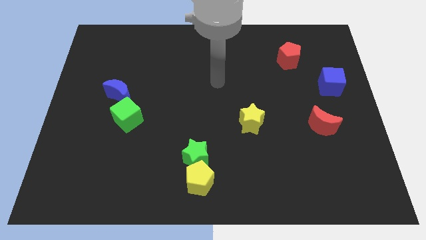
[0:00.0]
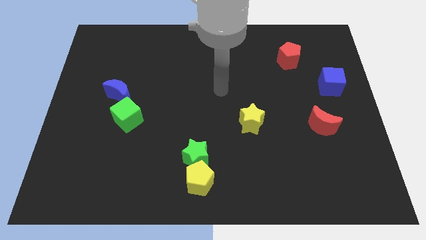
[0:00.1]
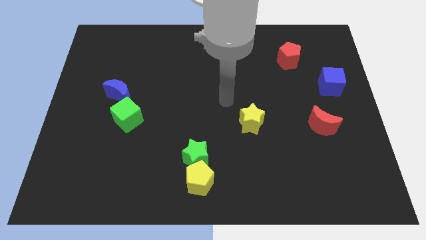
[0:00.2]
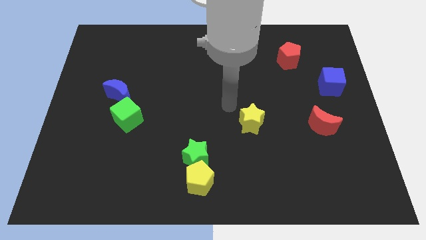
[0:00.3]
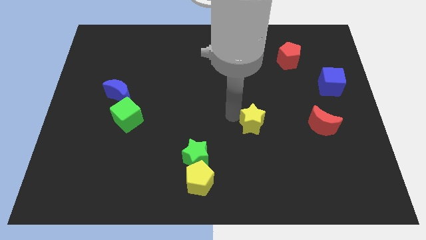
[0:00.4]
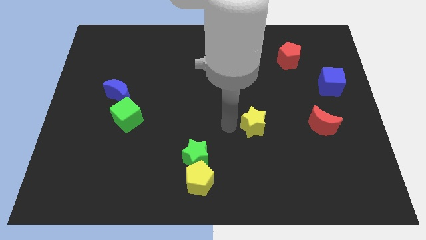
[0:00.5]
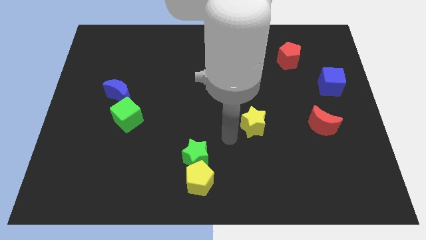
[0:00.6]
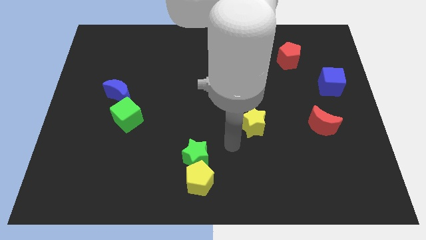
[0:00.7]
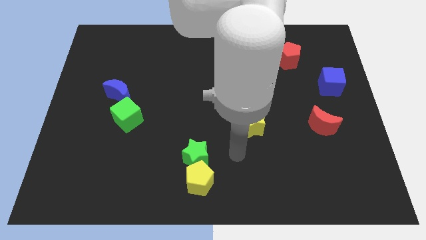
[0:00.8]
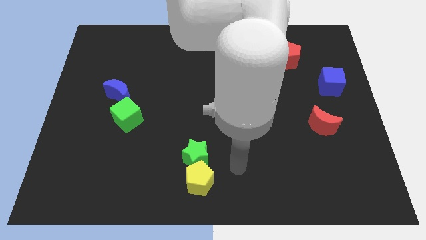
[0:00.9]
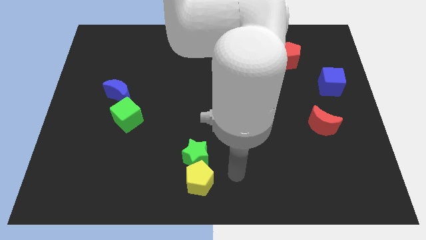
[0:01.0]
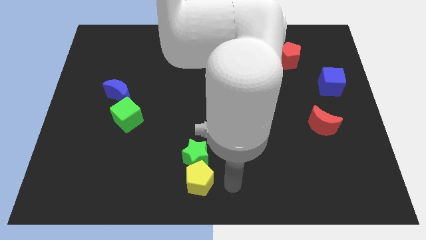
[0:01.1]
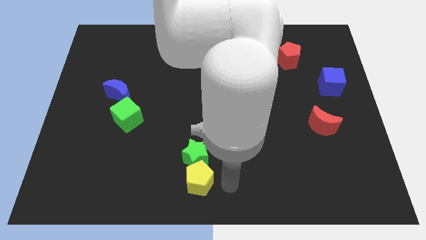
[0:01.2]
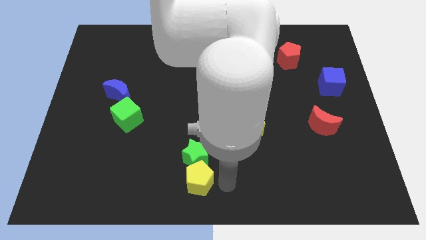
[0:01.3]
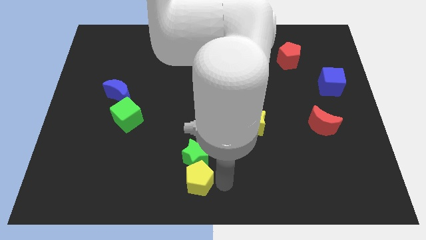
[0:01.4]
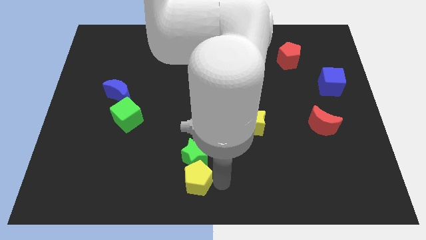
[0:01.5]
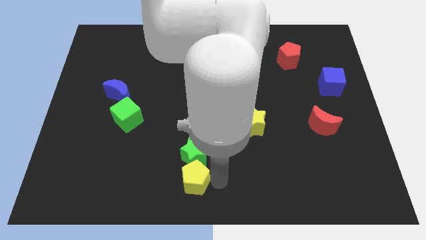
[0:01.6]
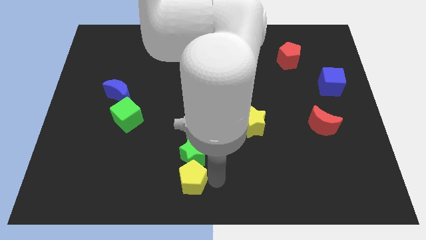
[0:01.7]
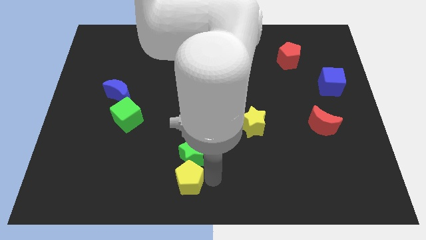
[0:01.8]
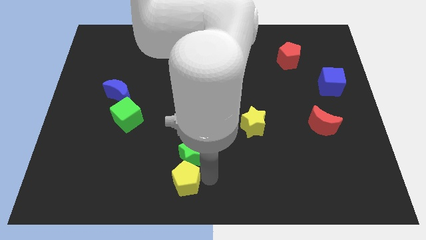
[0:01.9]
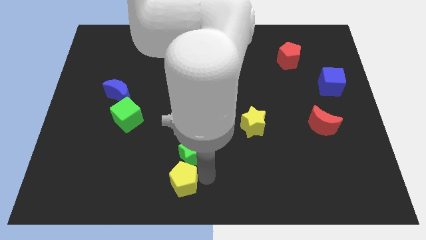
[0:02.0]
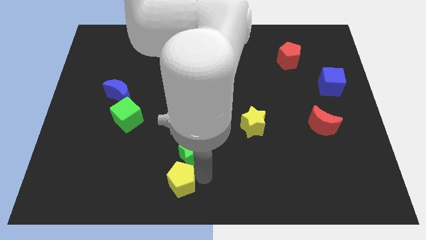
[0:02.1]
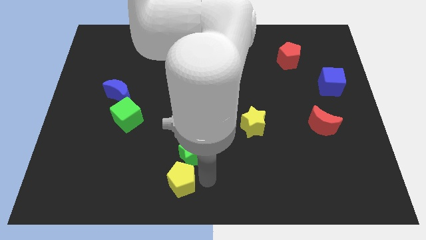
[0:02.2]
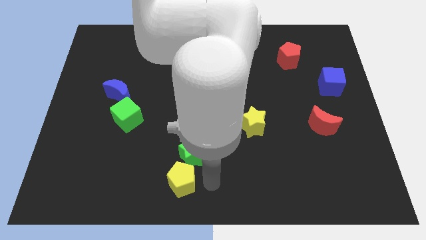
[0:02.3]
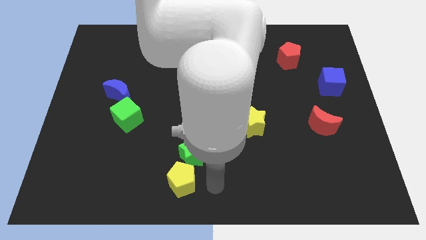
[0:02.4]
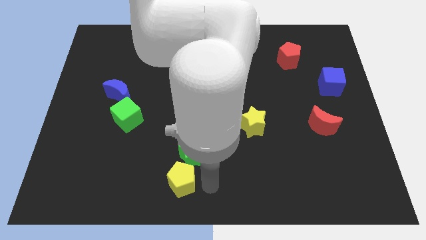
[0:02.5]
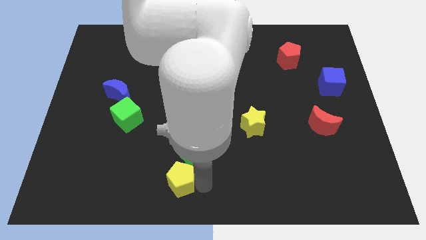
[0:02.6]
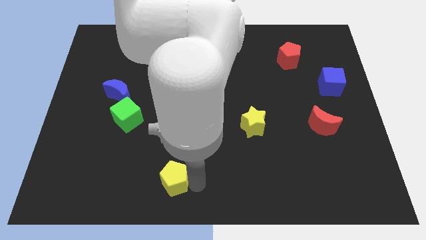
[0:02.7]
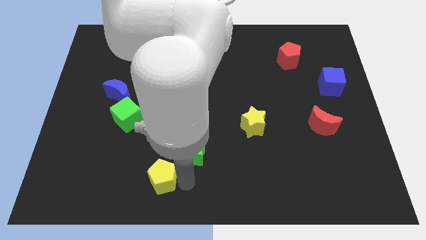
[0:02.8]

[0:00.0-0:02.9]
slightly push the yellow pentagon to the left

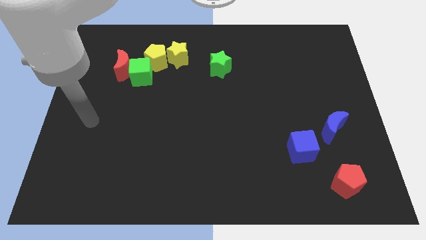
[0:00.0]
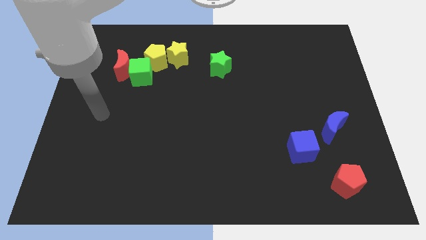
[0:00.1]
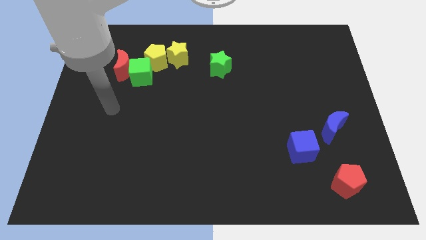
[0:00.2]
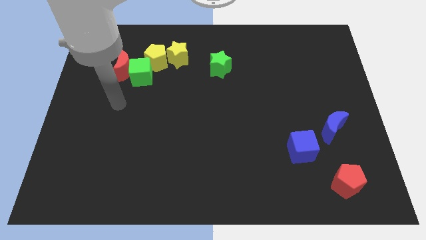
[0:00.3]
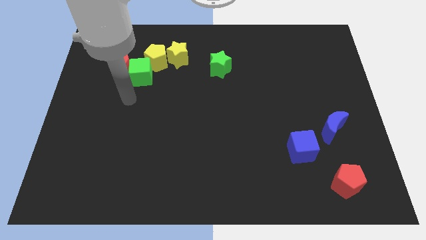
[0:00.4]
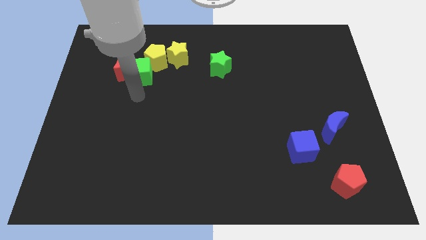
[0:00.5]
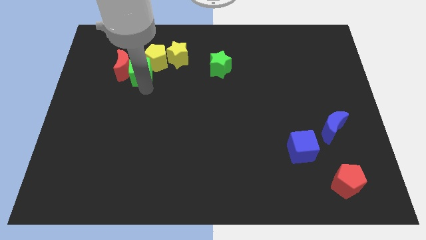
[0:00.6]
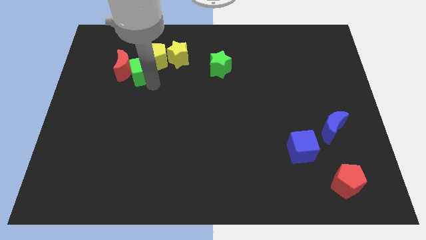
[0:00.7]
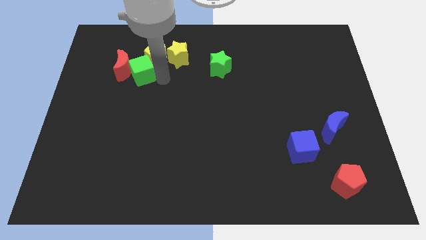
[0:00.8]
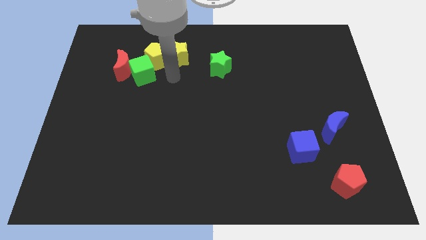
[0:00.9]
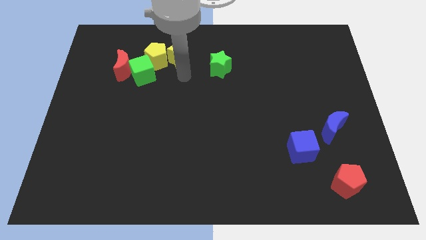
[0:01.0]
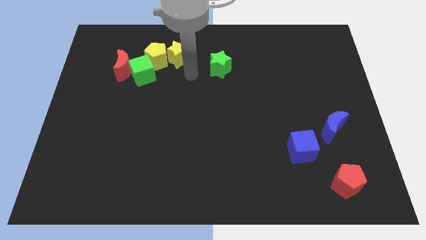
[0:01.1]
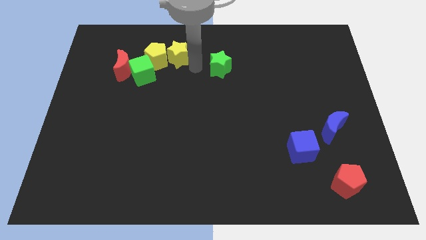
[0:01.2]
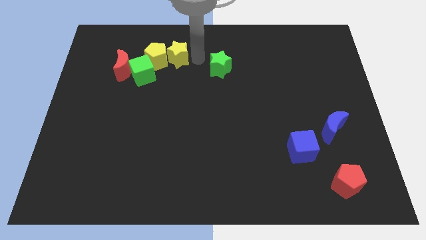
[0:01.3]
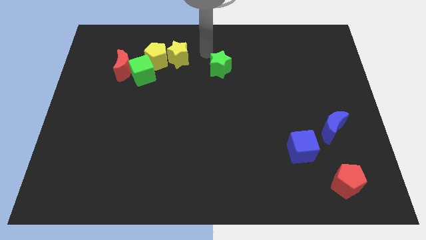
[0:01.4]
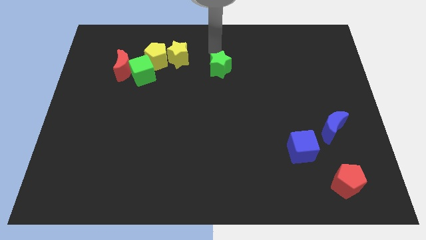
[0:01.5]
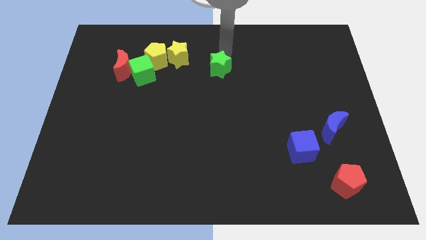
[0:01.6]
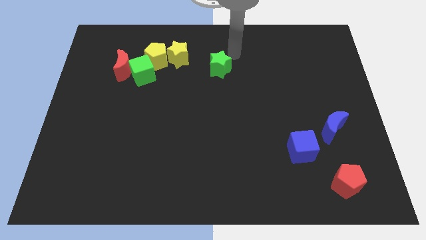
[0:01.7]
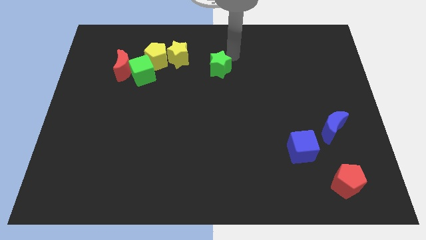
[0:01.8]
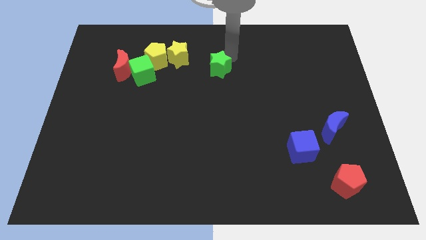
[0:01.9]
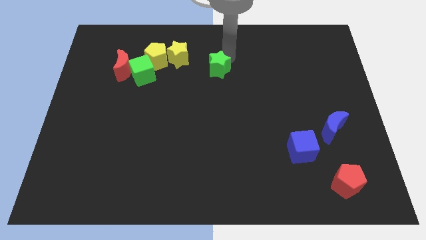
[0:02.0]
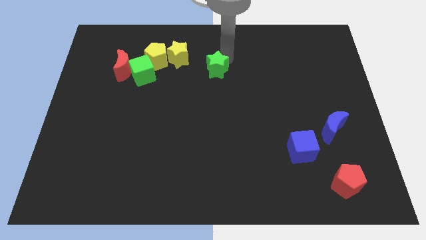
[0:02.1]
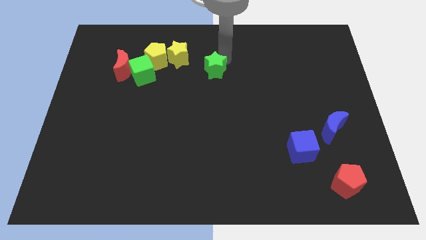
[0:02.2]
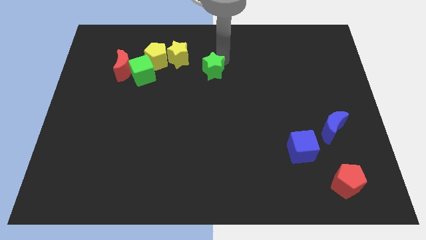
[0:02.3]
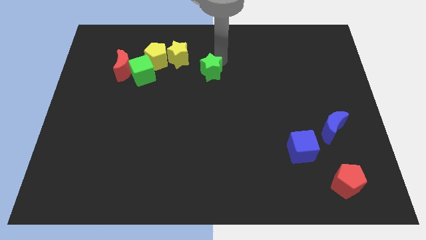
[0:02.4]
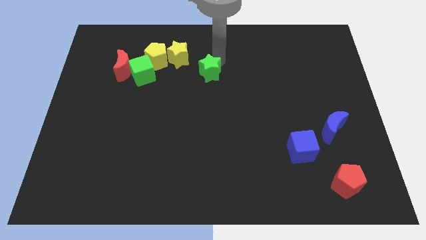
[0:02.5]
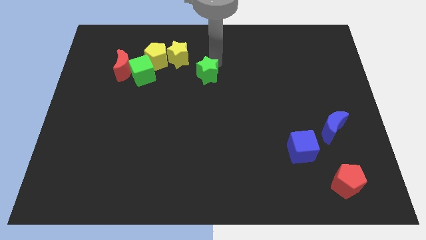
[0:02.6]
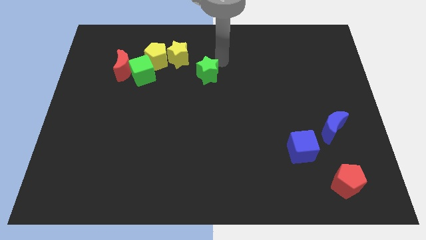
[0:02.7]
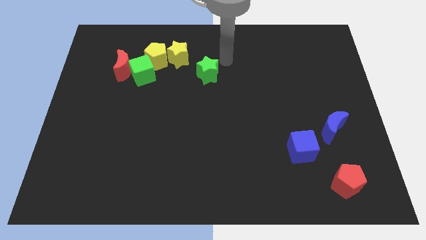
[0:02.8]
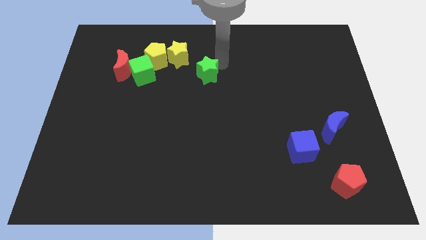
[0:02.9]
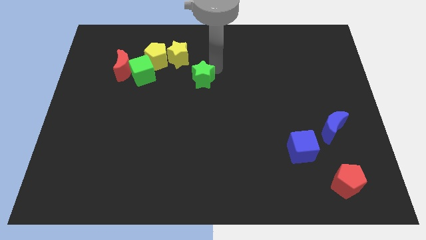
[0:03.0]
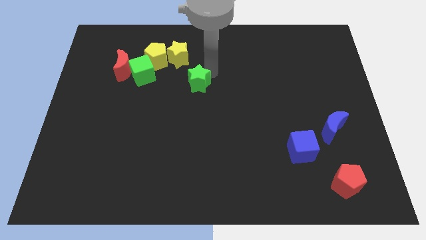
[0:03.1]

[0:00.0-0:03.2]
slide the green star down and left slightly

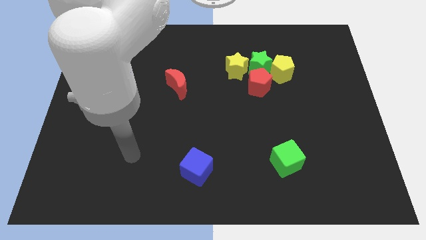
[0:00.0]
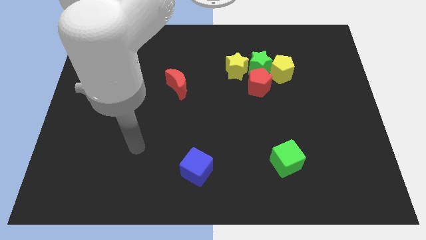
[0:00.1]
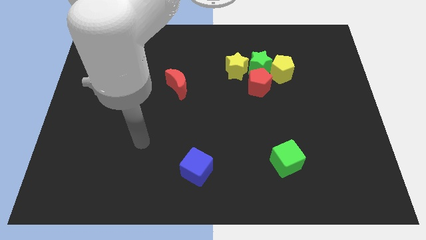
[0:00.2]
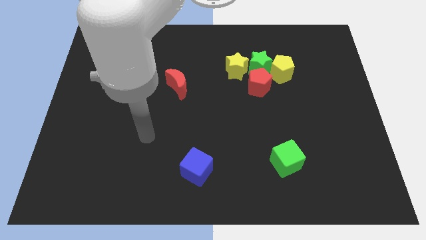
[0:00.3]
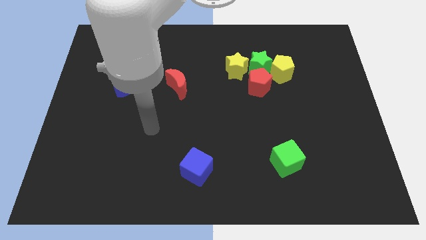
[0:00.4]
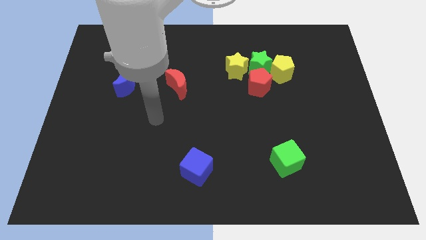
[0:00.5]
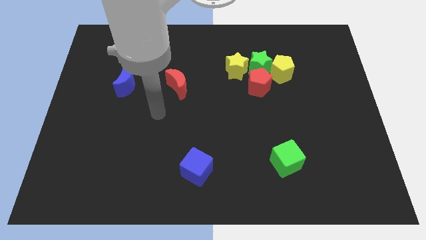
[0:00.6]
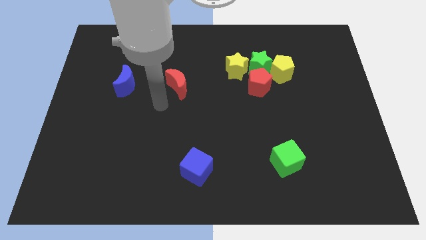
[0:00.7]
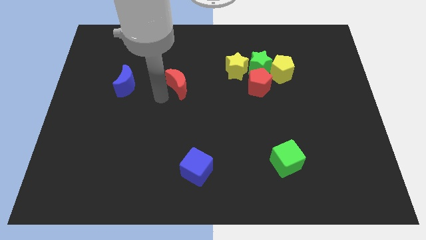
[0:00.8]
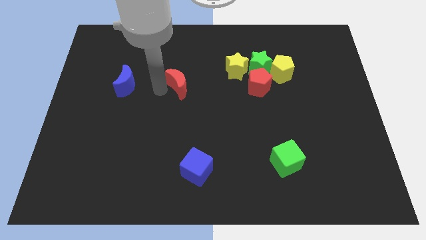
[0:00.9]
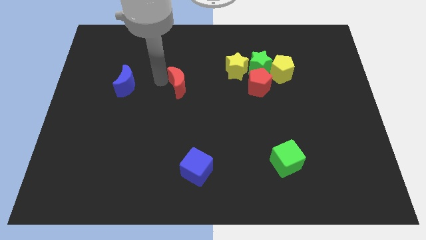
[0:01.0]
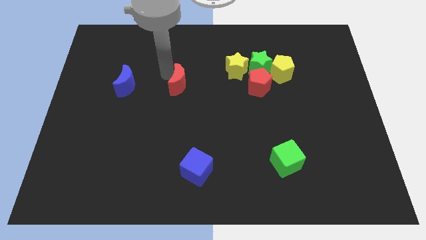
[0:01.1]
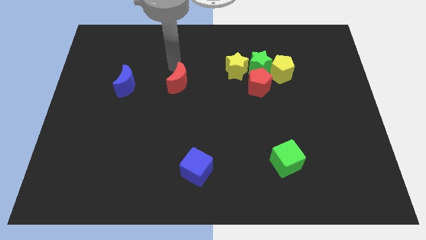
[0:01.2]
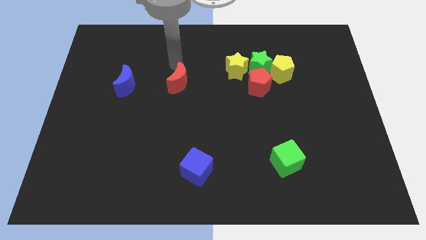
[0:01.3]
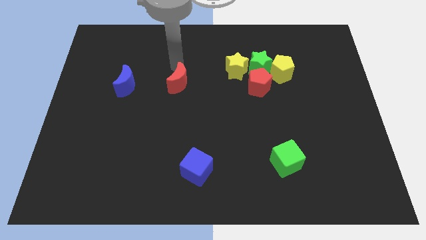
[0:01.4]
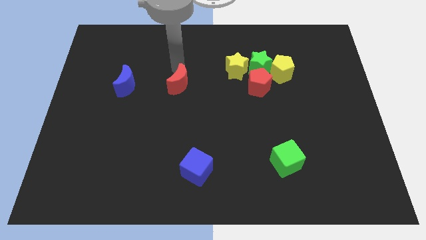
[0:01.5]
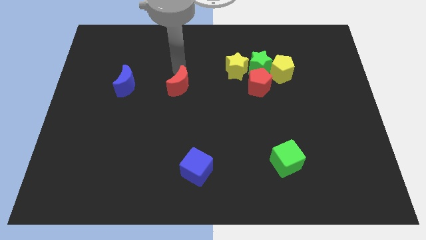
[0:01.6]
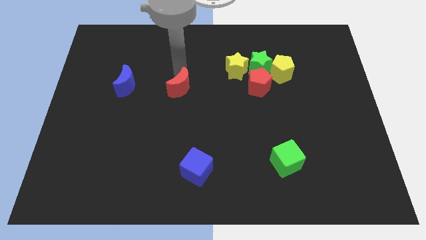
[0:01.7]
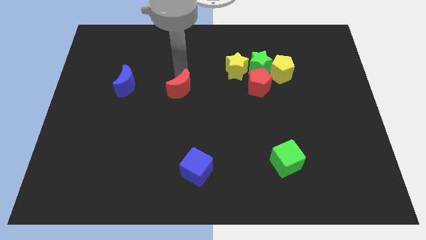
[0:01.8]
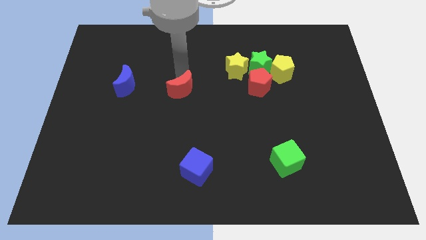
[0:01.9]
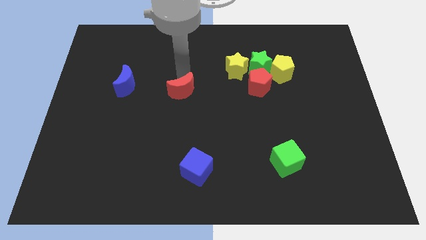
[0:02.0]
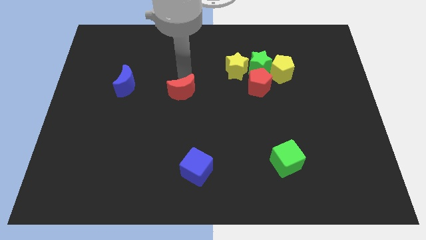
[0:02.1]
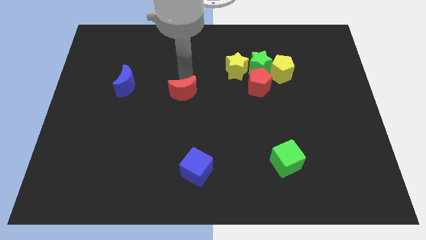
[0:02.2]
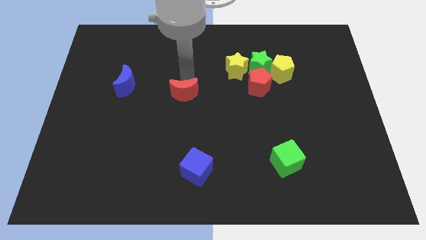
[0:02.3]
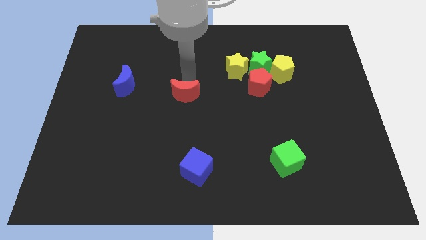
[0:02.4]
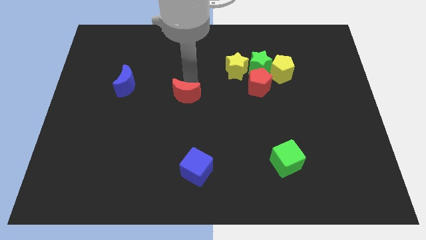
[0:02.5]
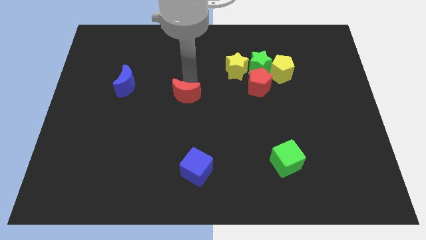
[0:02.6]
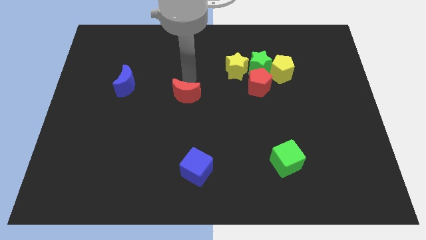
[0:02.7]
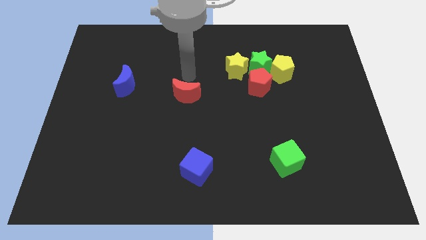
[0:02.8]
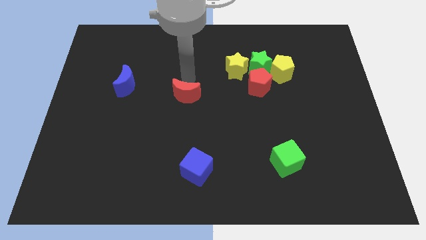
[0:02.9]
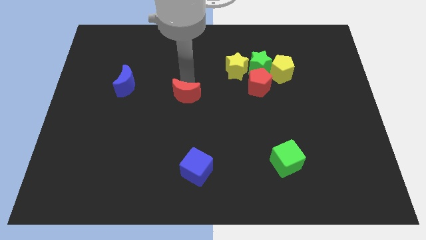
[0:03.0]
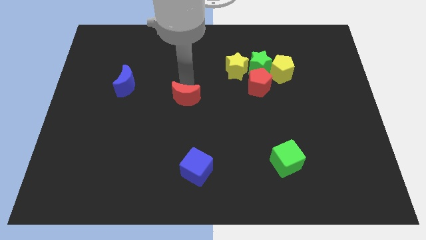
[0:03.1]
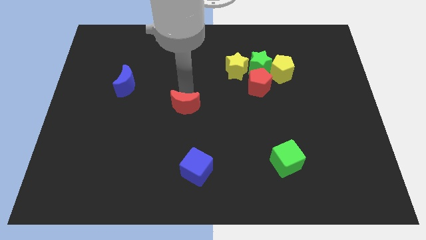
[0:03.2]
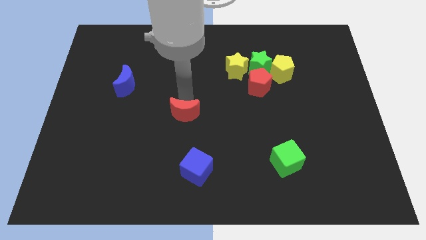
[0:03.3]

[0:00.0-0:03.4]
slightly move the red moon downwards
